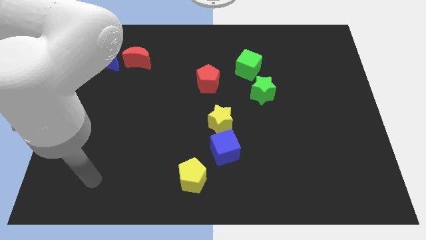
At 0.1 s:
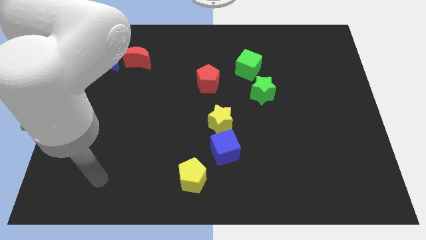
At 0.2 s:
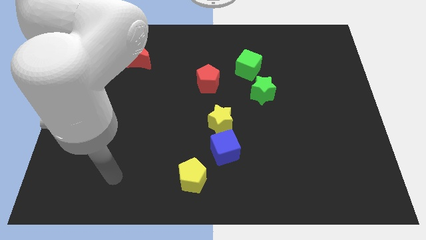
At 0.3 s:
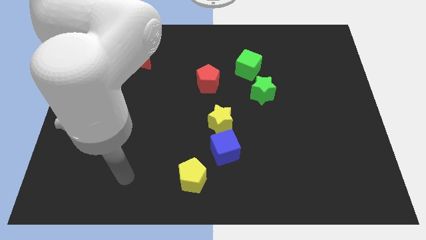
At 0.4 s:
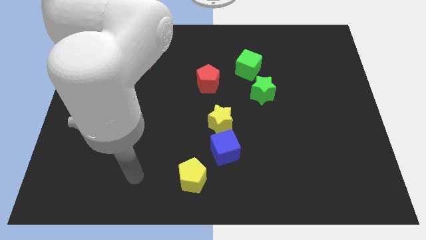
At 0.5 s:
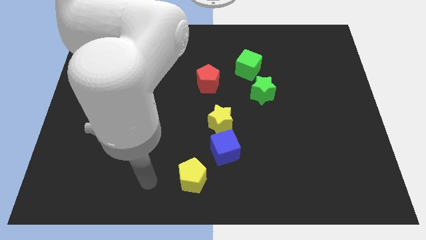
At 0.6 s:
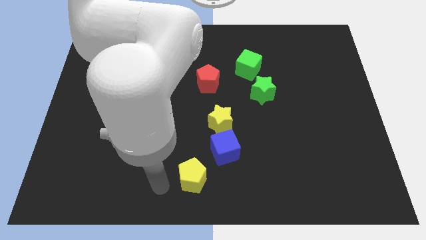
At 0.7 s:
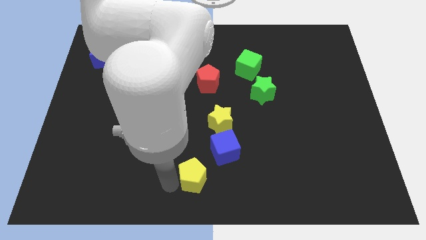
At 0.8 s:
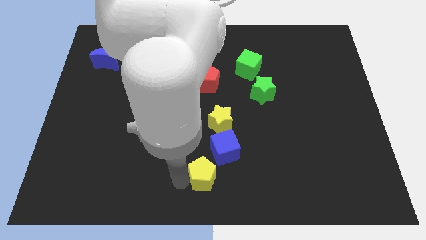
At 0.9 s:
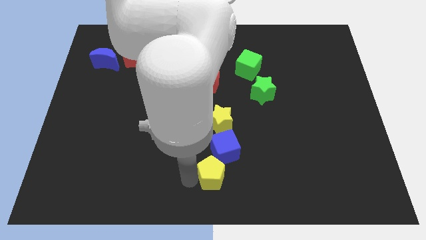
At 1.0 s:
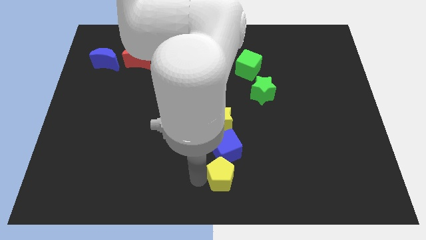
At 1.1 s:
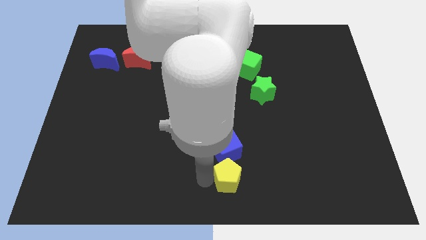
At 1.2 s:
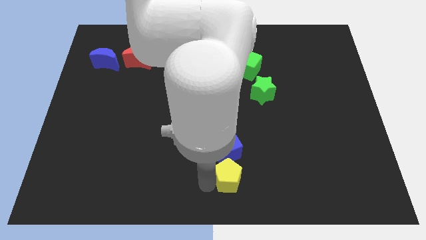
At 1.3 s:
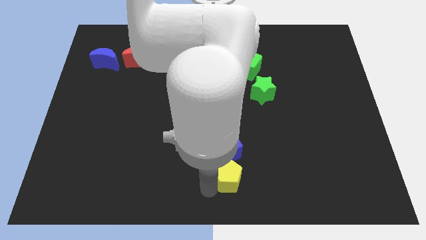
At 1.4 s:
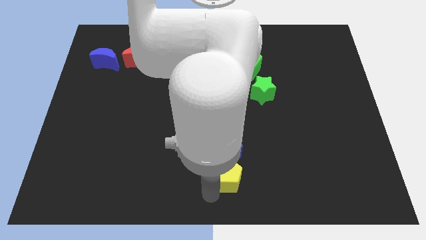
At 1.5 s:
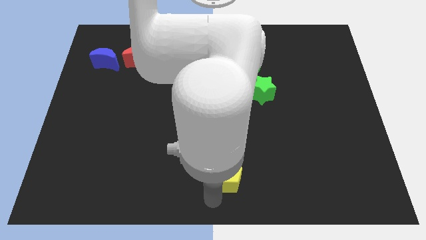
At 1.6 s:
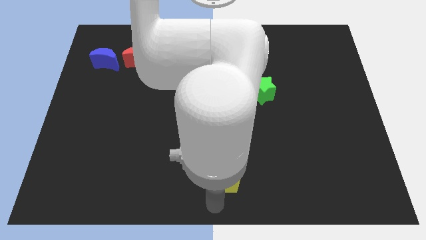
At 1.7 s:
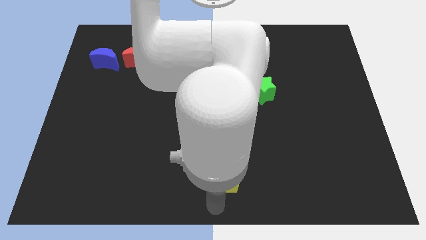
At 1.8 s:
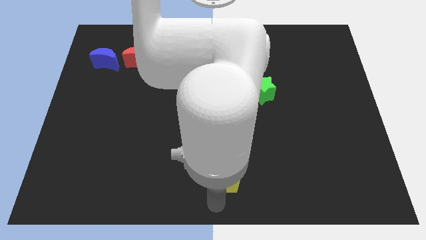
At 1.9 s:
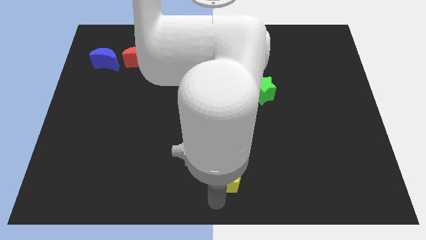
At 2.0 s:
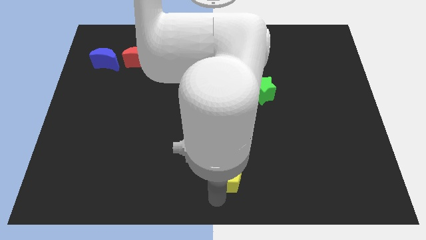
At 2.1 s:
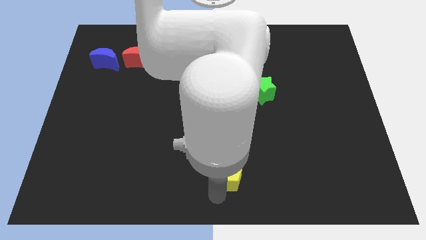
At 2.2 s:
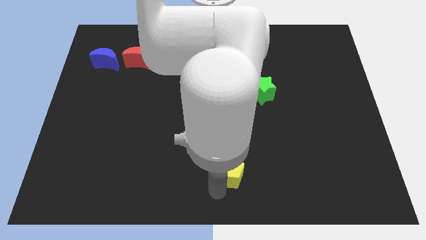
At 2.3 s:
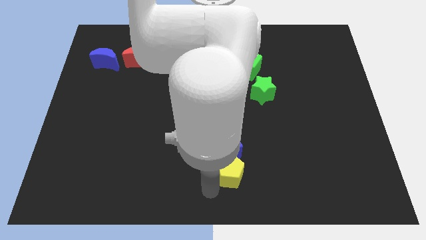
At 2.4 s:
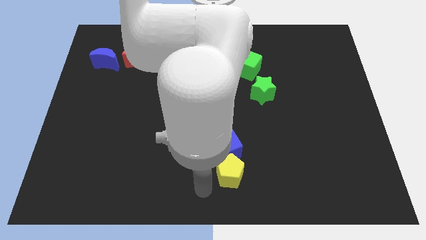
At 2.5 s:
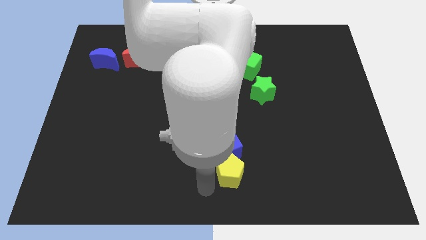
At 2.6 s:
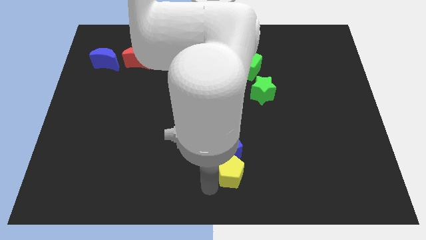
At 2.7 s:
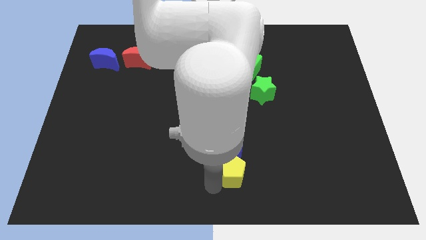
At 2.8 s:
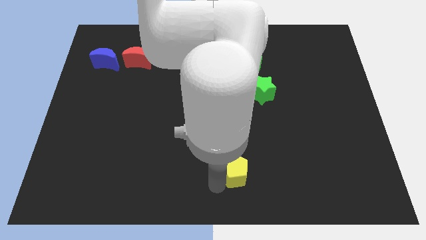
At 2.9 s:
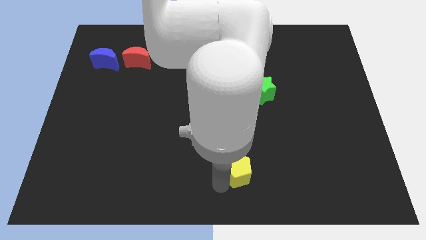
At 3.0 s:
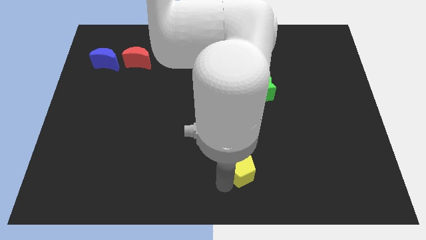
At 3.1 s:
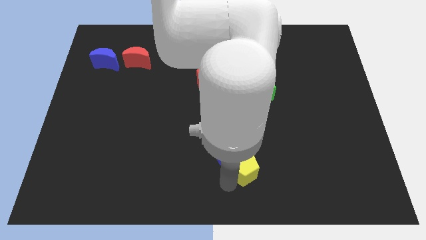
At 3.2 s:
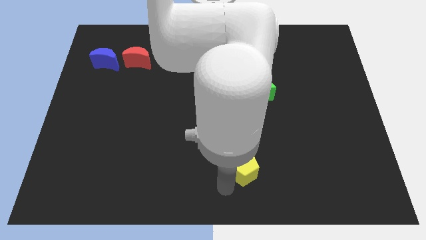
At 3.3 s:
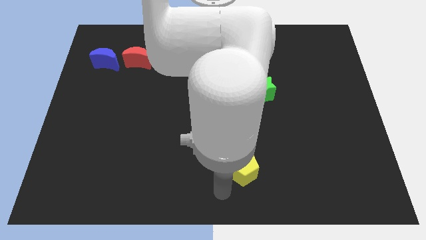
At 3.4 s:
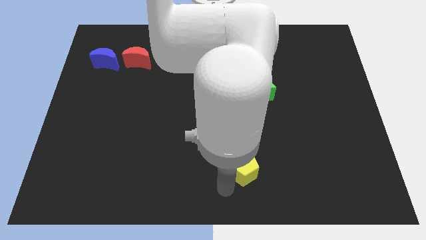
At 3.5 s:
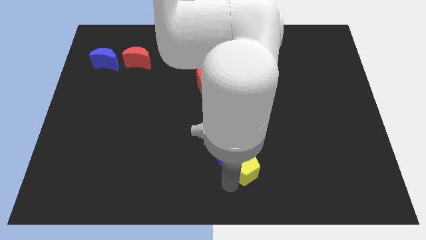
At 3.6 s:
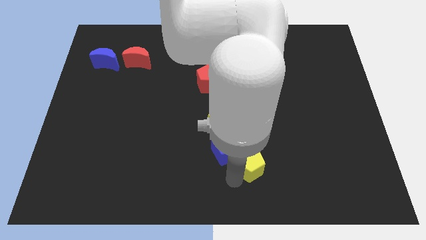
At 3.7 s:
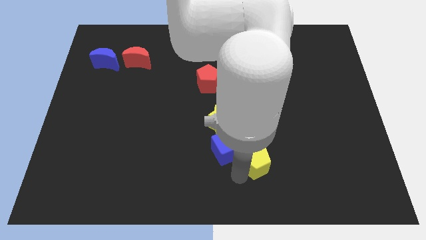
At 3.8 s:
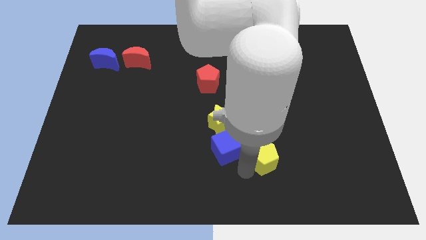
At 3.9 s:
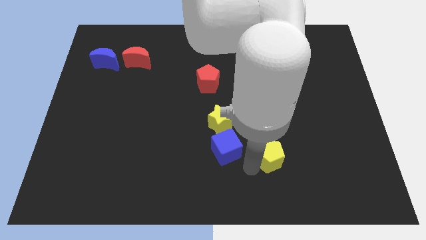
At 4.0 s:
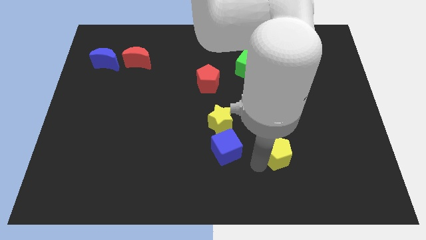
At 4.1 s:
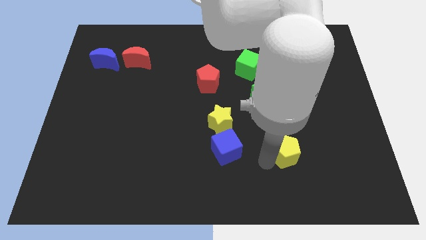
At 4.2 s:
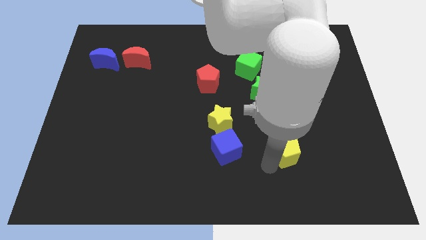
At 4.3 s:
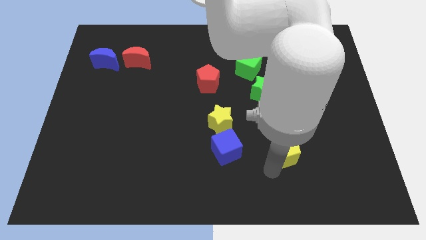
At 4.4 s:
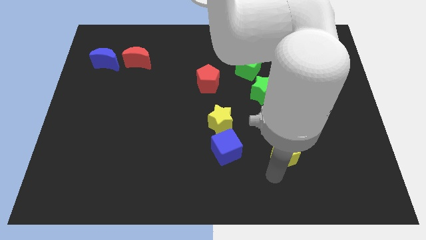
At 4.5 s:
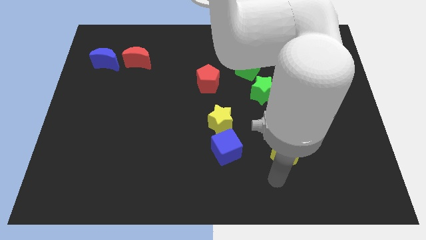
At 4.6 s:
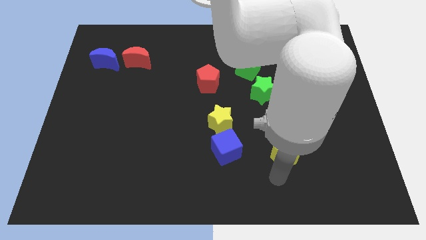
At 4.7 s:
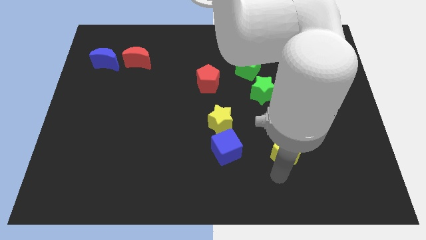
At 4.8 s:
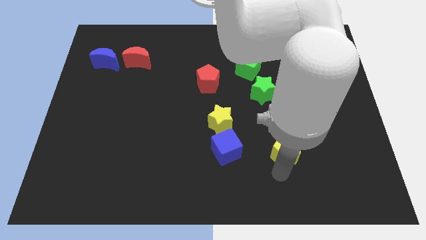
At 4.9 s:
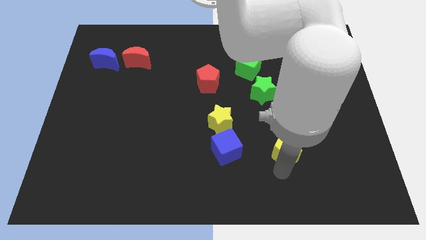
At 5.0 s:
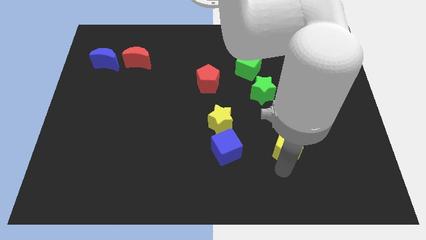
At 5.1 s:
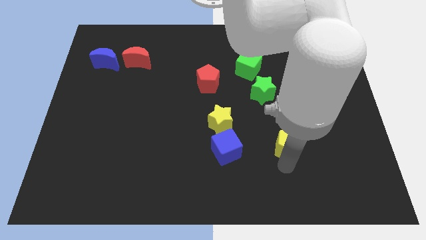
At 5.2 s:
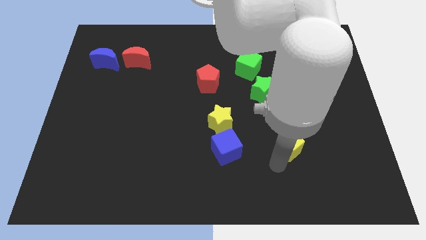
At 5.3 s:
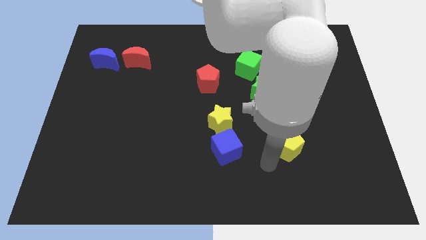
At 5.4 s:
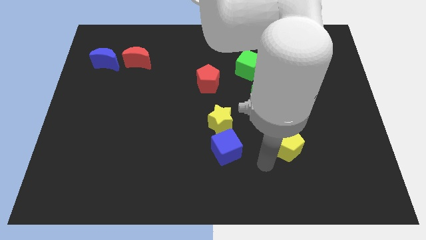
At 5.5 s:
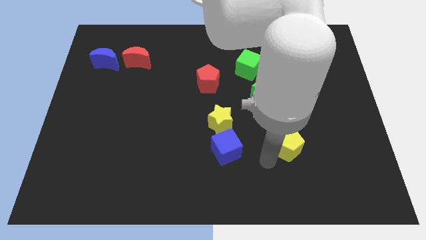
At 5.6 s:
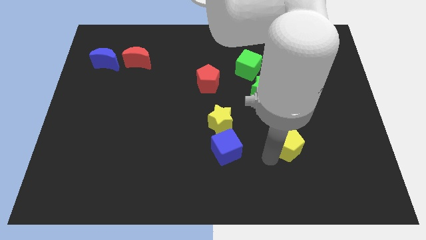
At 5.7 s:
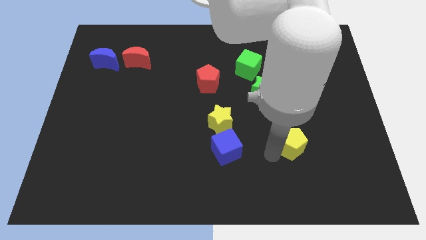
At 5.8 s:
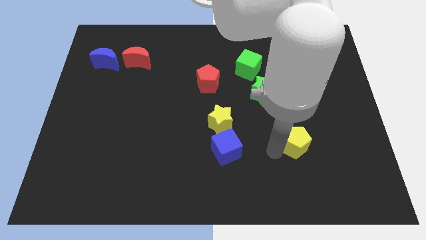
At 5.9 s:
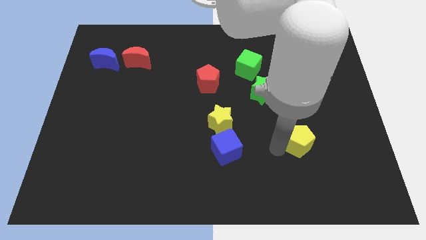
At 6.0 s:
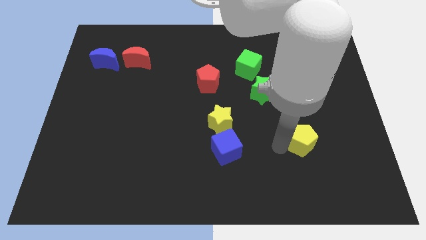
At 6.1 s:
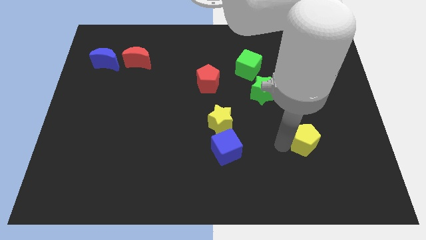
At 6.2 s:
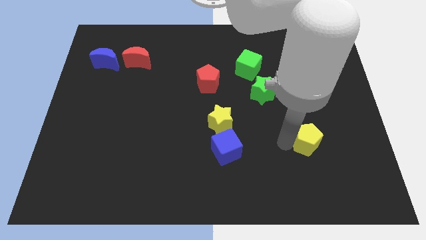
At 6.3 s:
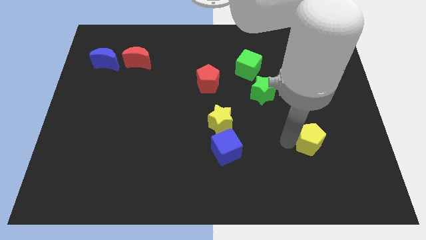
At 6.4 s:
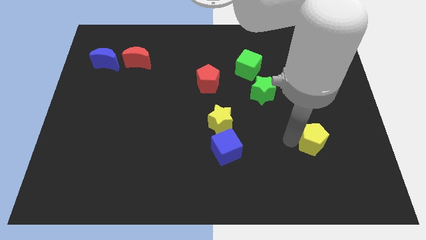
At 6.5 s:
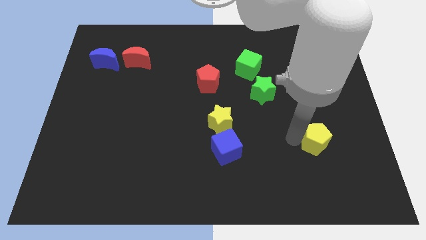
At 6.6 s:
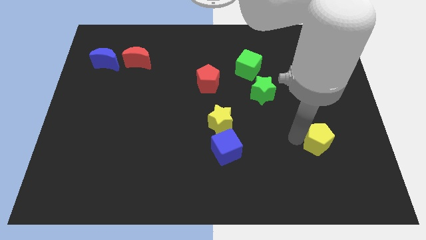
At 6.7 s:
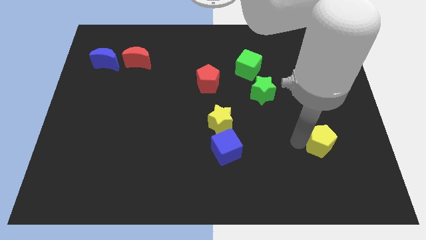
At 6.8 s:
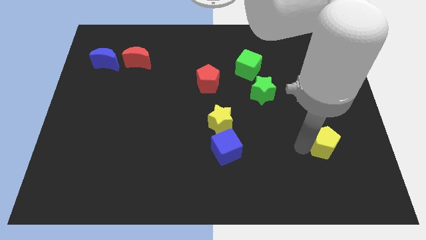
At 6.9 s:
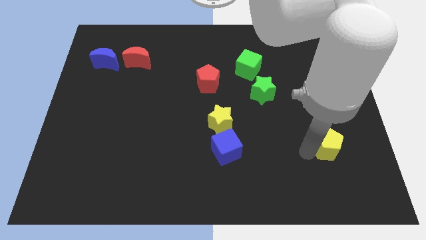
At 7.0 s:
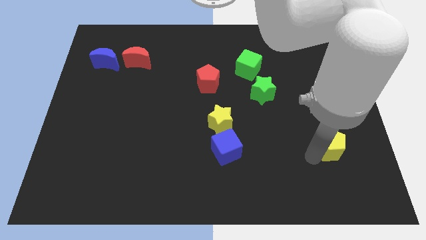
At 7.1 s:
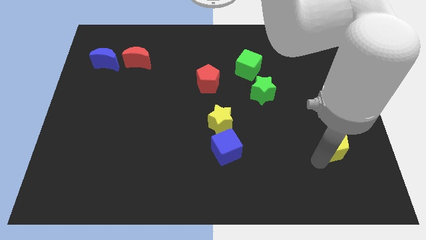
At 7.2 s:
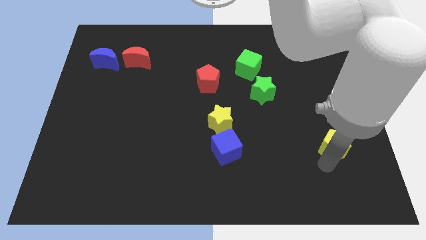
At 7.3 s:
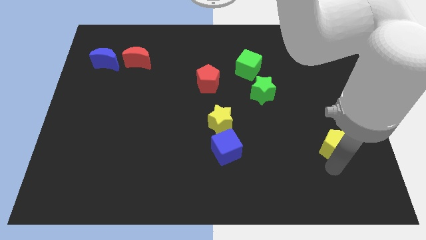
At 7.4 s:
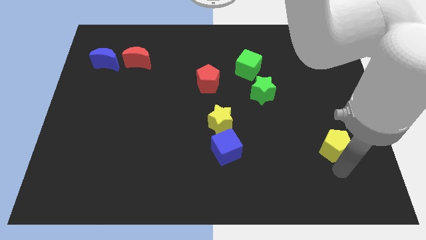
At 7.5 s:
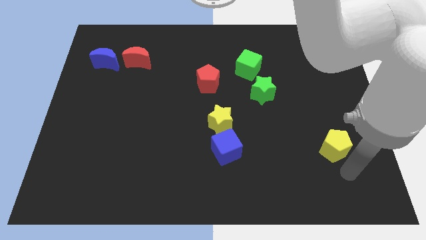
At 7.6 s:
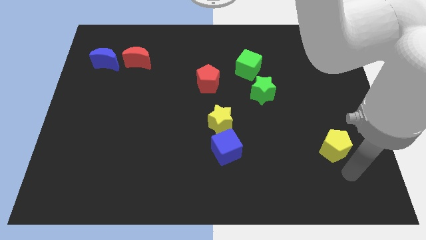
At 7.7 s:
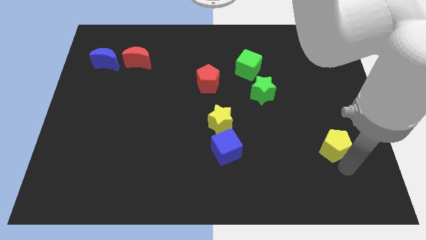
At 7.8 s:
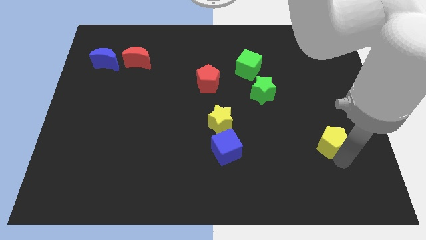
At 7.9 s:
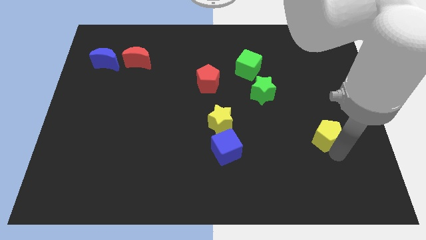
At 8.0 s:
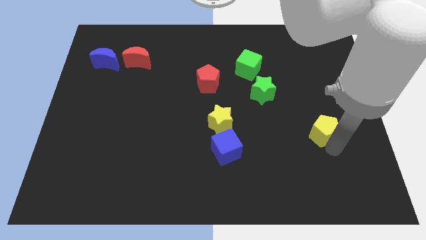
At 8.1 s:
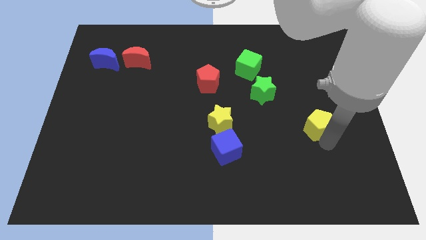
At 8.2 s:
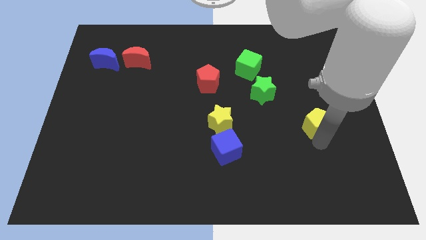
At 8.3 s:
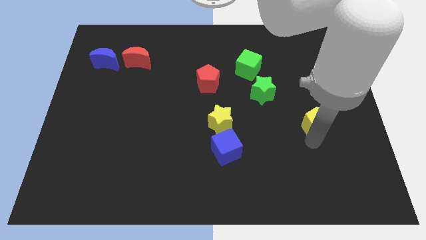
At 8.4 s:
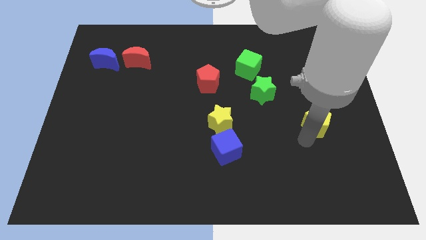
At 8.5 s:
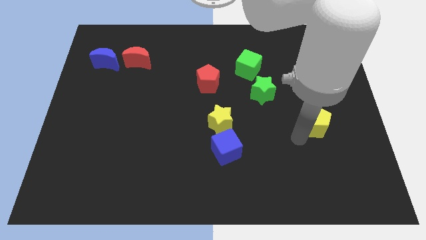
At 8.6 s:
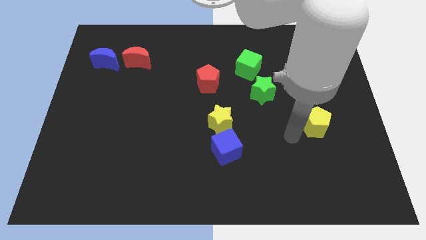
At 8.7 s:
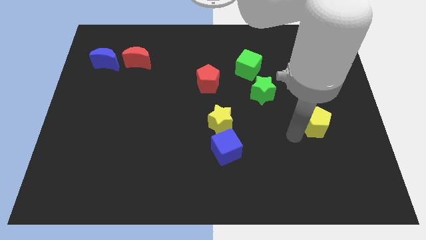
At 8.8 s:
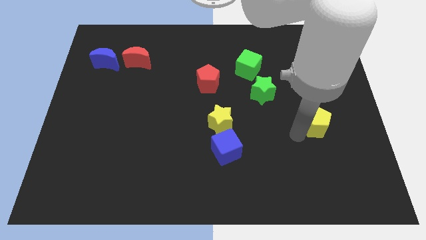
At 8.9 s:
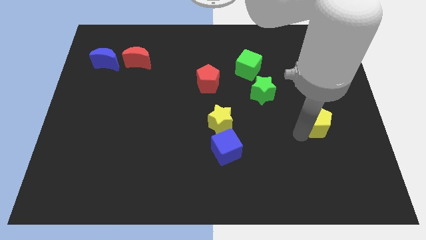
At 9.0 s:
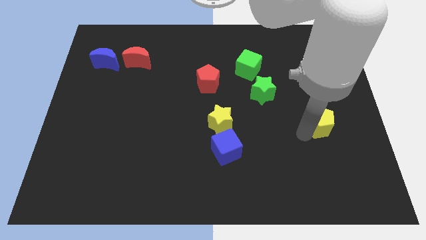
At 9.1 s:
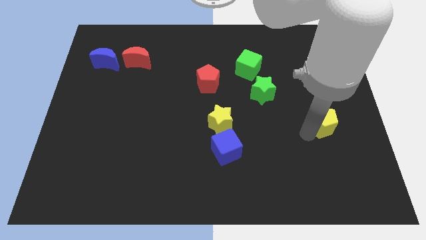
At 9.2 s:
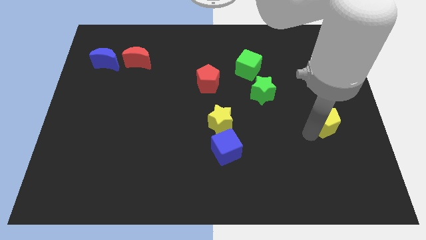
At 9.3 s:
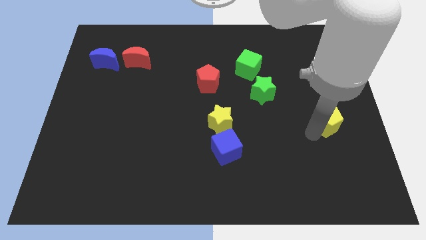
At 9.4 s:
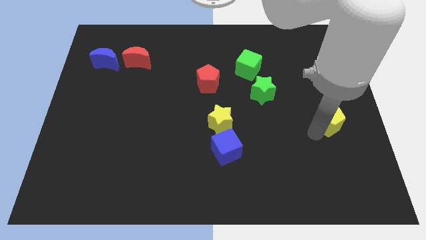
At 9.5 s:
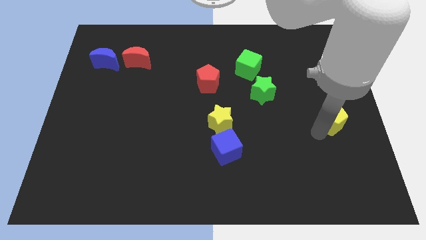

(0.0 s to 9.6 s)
slide the yellow pentagon to the center right
